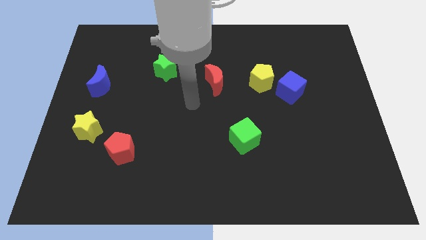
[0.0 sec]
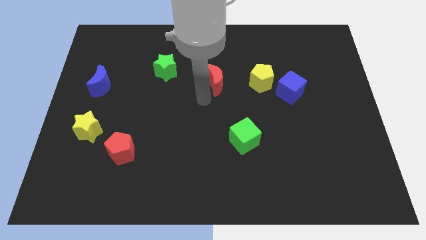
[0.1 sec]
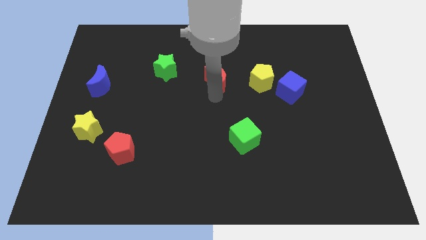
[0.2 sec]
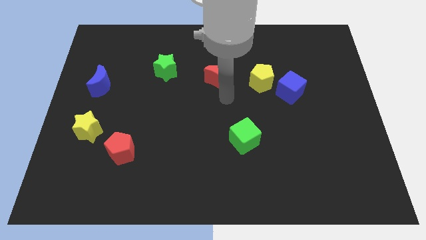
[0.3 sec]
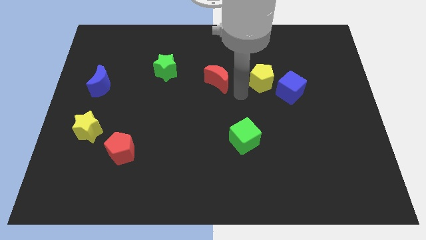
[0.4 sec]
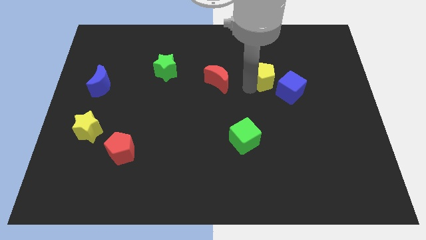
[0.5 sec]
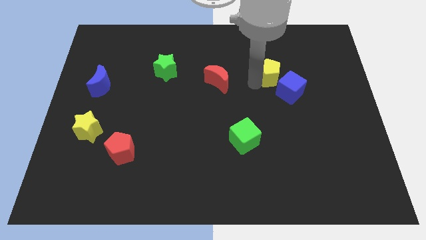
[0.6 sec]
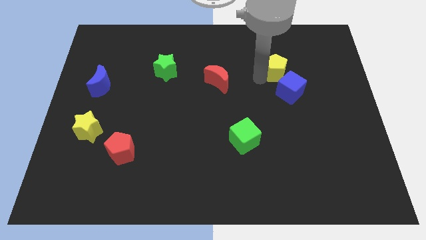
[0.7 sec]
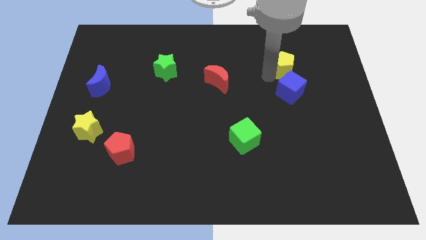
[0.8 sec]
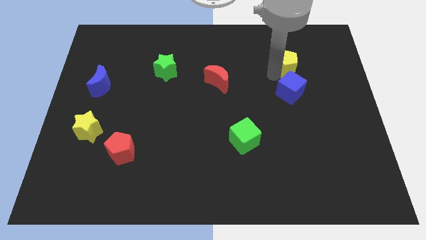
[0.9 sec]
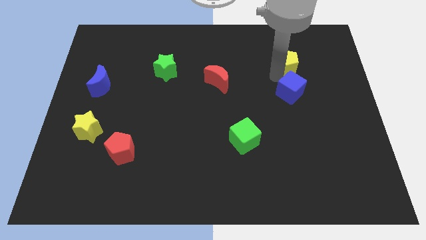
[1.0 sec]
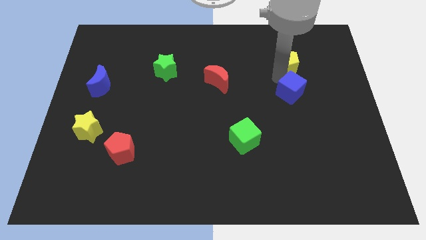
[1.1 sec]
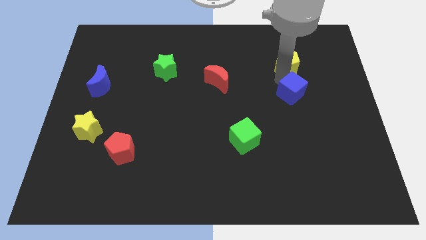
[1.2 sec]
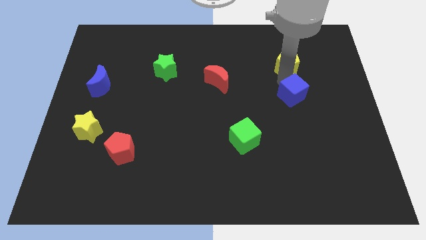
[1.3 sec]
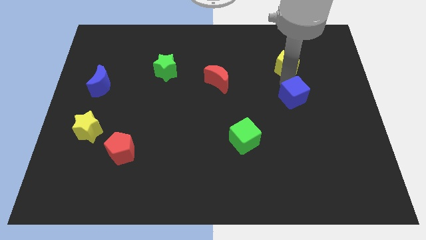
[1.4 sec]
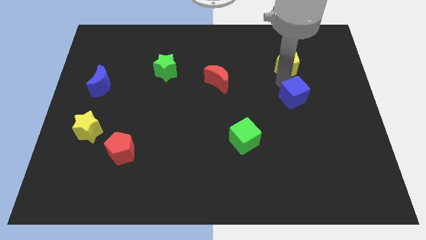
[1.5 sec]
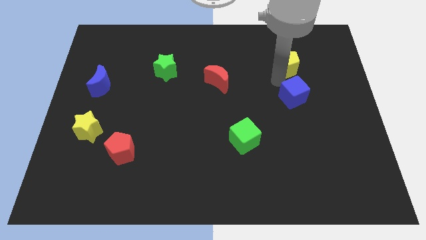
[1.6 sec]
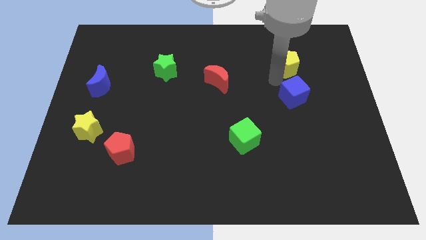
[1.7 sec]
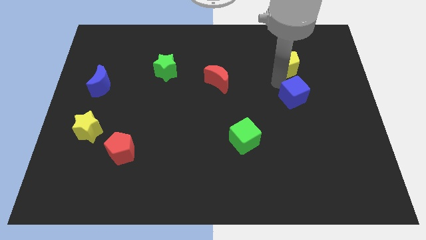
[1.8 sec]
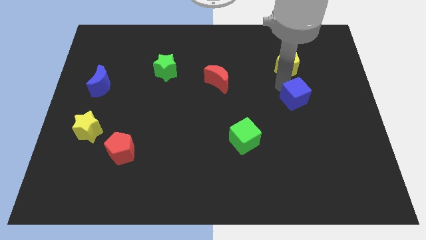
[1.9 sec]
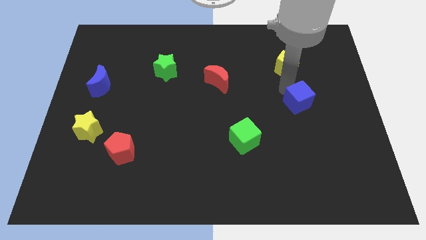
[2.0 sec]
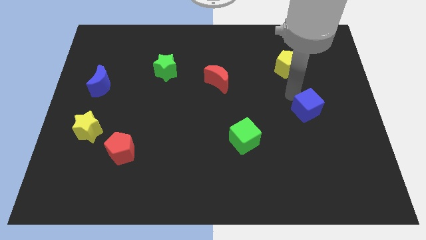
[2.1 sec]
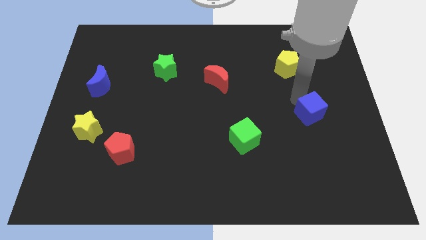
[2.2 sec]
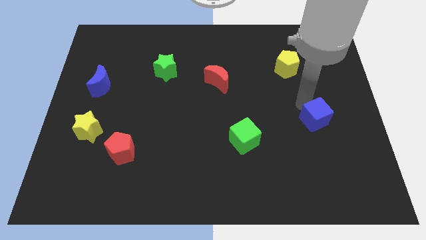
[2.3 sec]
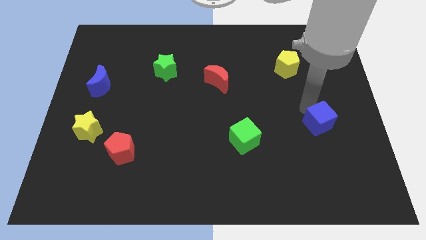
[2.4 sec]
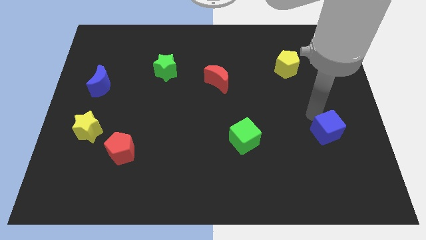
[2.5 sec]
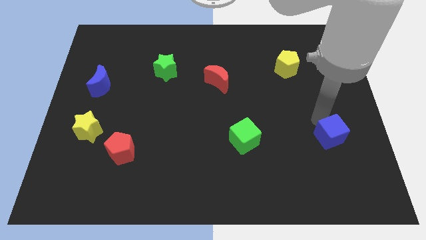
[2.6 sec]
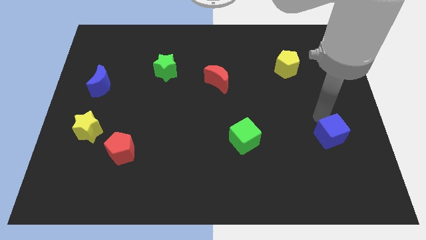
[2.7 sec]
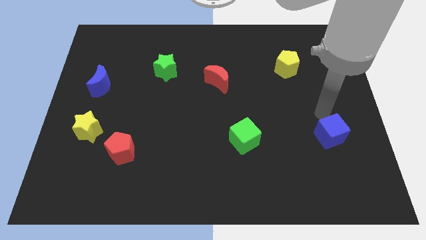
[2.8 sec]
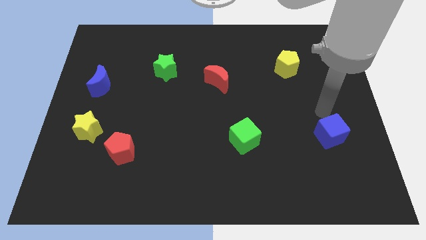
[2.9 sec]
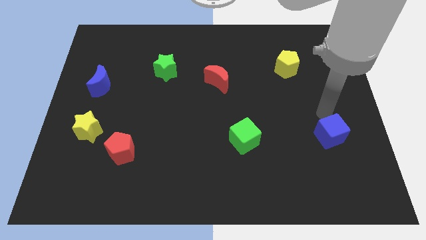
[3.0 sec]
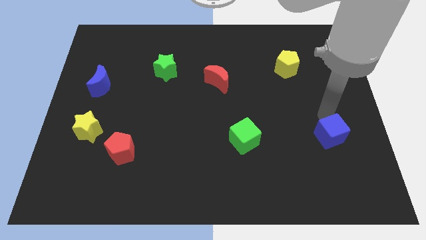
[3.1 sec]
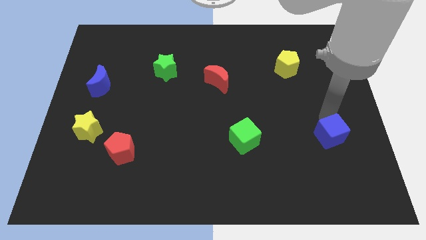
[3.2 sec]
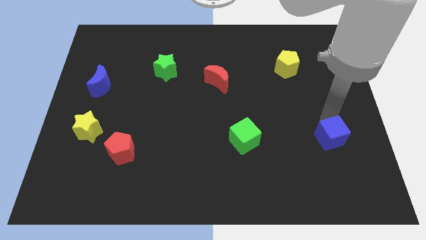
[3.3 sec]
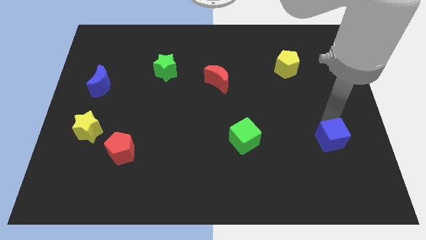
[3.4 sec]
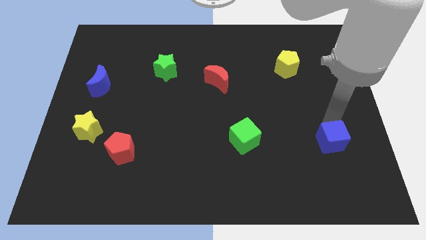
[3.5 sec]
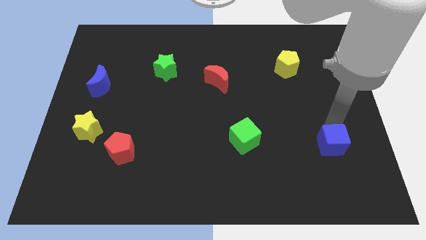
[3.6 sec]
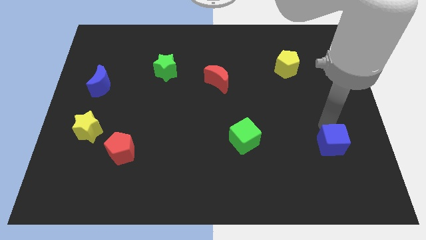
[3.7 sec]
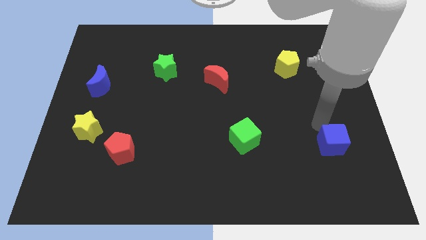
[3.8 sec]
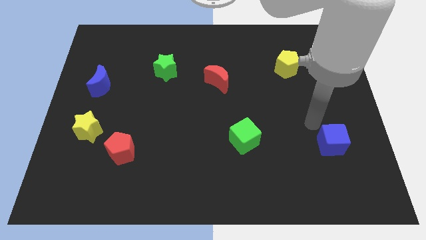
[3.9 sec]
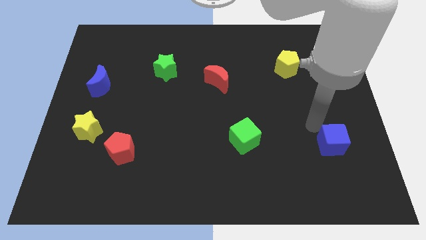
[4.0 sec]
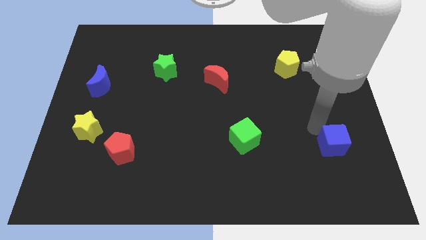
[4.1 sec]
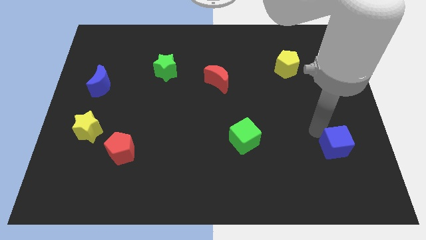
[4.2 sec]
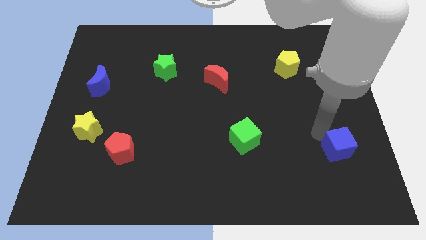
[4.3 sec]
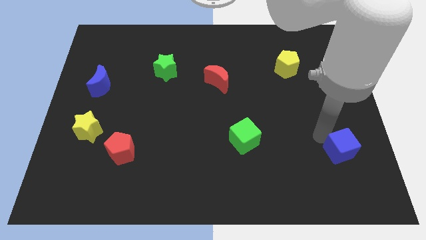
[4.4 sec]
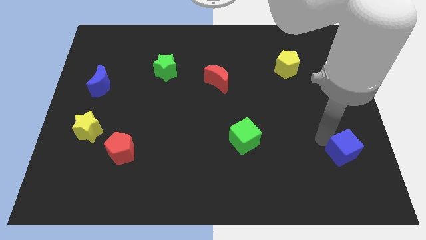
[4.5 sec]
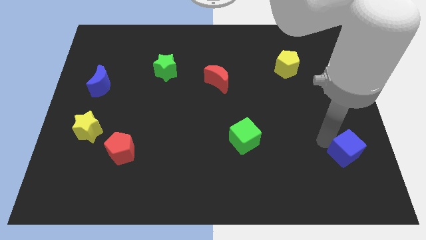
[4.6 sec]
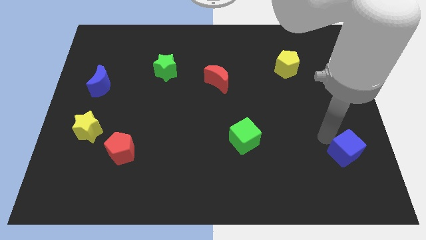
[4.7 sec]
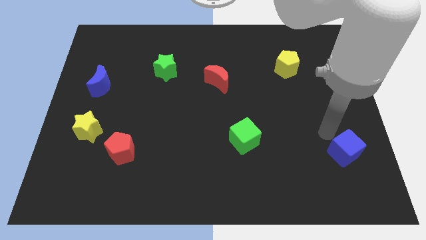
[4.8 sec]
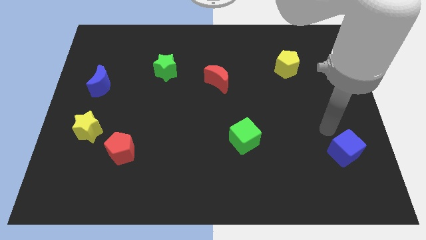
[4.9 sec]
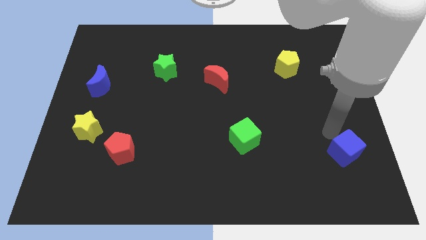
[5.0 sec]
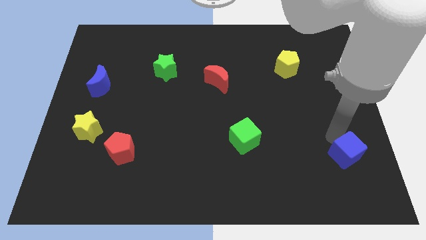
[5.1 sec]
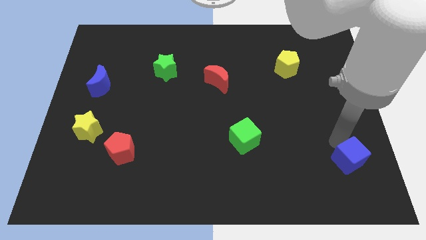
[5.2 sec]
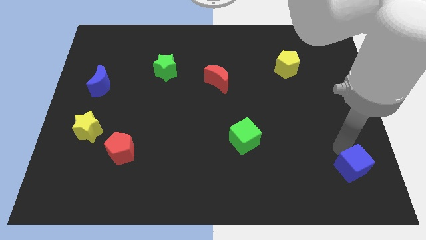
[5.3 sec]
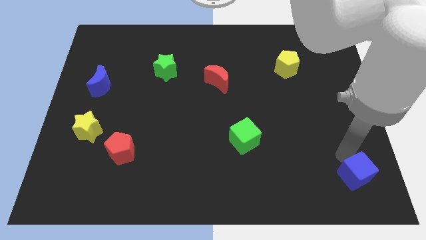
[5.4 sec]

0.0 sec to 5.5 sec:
push the blue cube to the bottom right corner

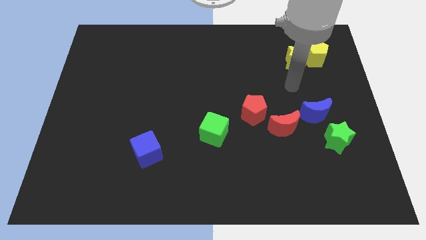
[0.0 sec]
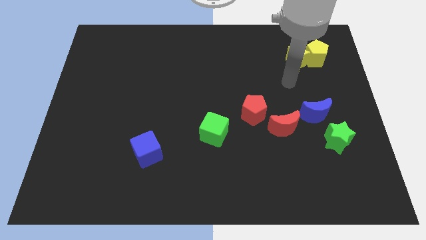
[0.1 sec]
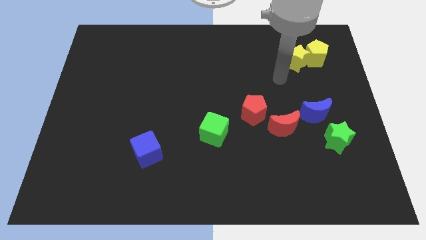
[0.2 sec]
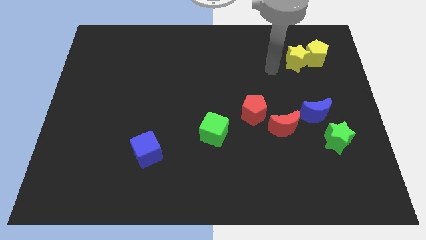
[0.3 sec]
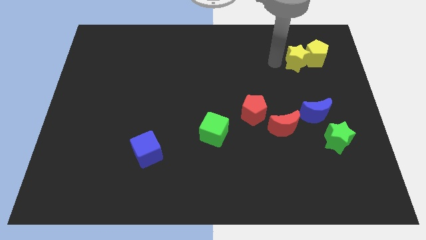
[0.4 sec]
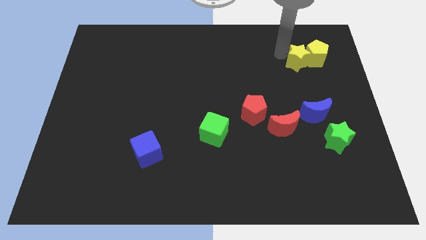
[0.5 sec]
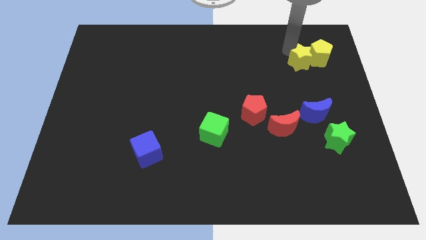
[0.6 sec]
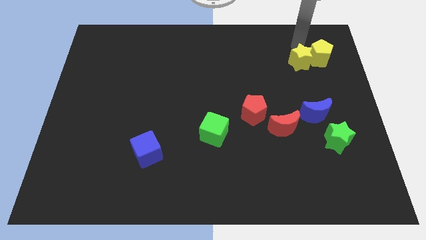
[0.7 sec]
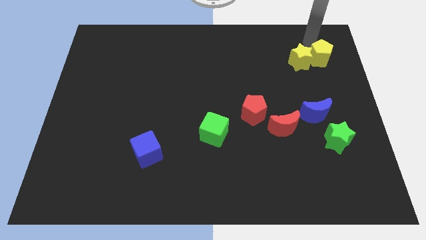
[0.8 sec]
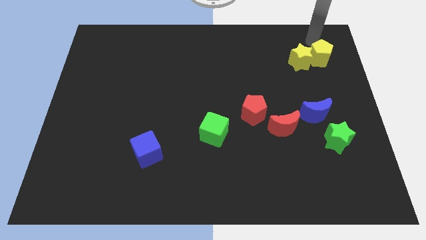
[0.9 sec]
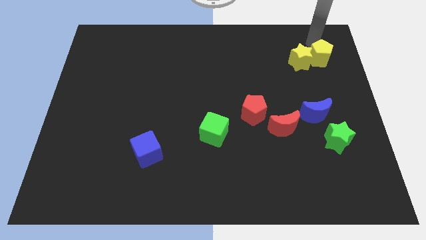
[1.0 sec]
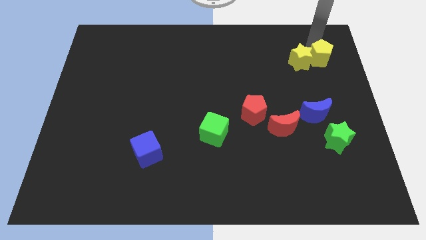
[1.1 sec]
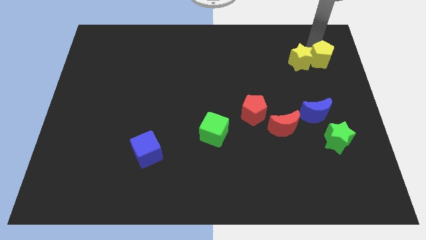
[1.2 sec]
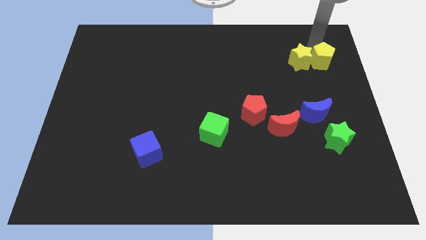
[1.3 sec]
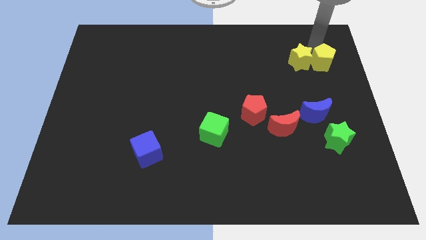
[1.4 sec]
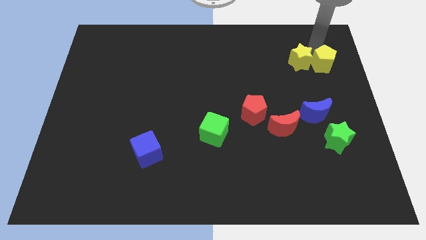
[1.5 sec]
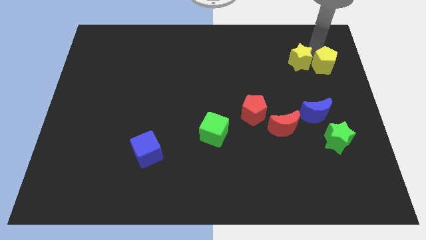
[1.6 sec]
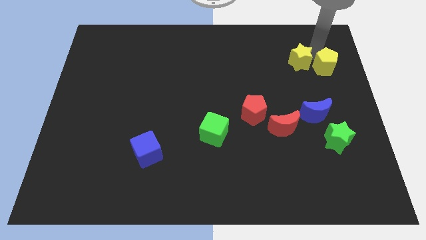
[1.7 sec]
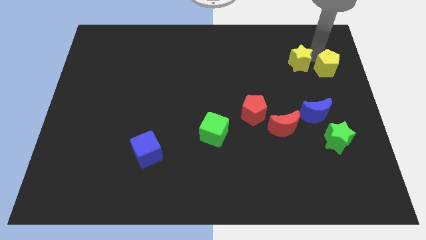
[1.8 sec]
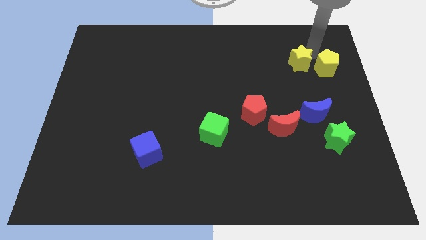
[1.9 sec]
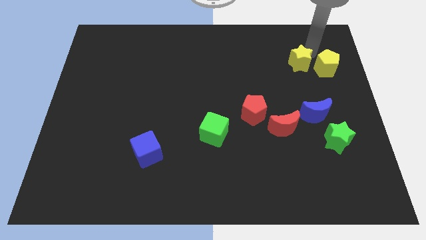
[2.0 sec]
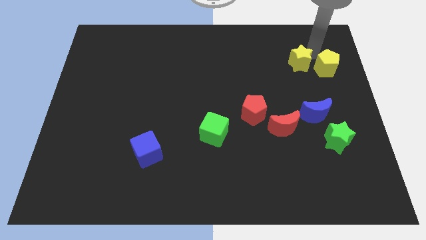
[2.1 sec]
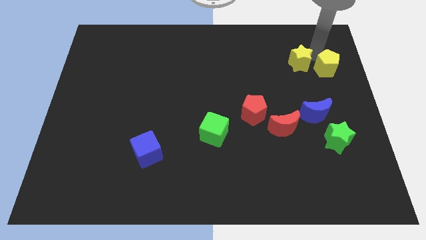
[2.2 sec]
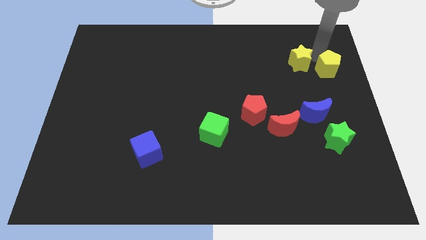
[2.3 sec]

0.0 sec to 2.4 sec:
push the yellow pentagon to the center right
